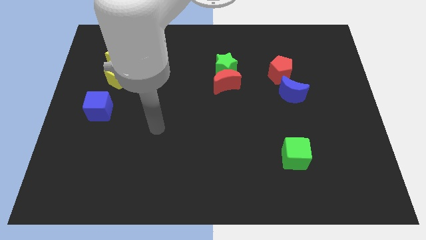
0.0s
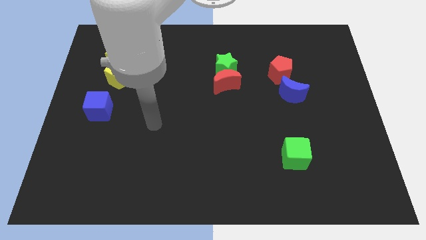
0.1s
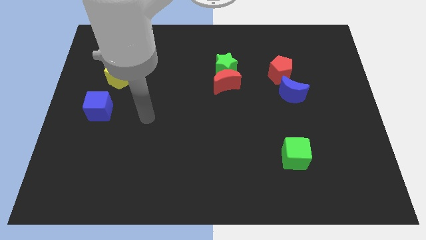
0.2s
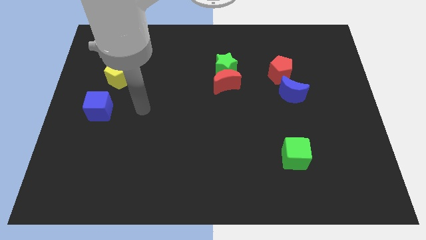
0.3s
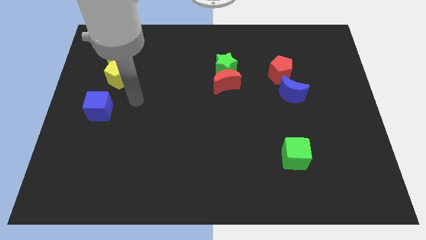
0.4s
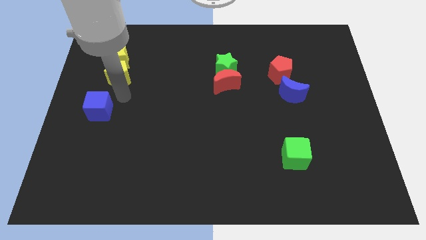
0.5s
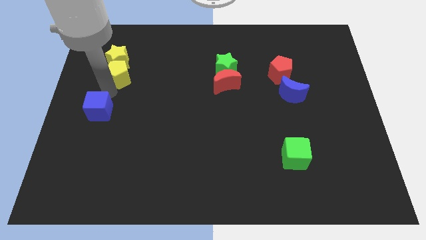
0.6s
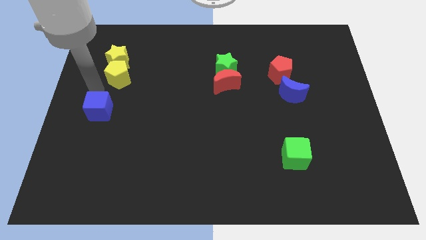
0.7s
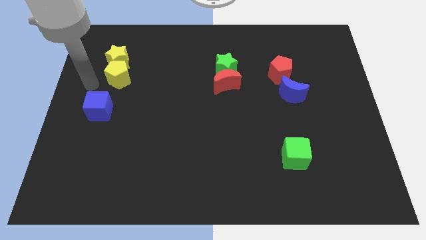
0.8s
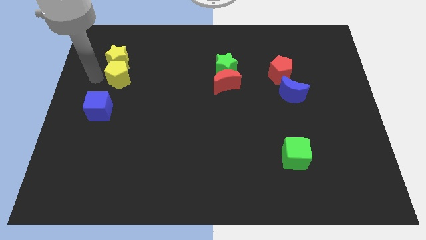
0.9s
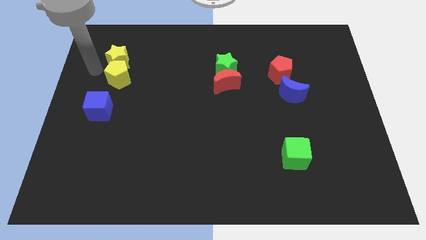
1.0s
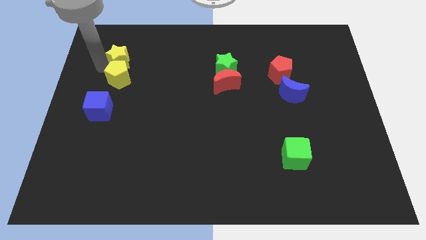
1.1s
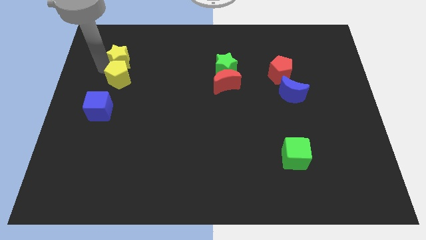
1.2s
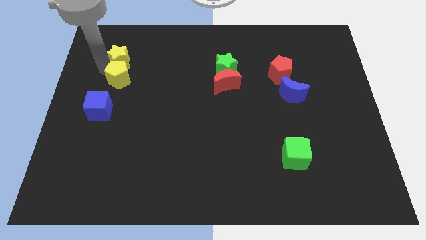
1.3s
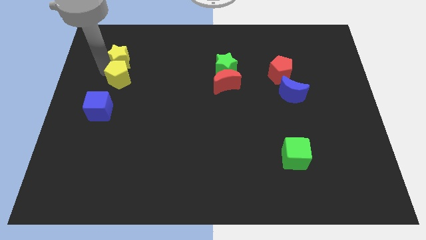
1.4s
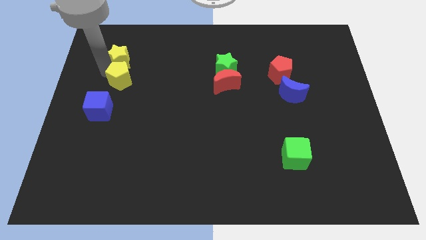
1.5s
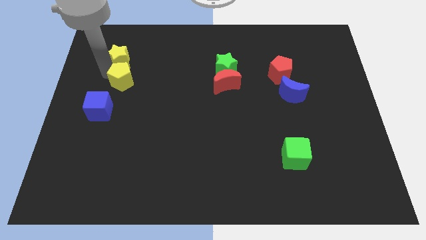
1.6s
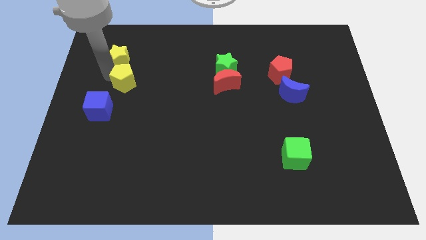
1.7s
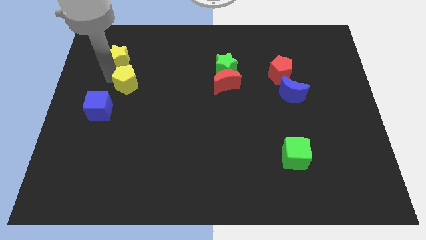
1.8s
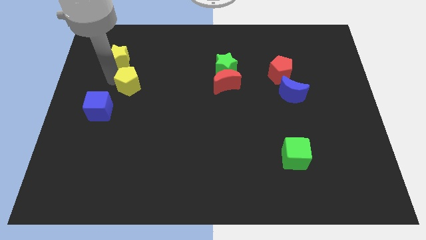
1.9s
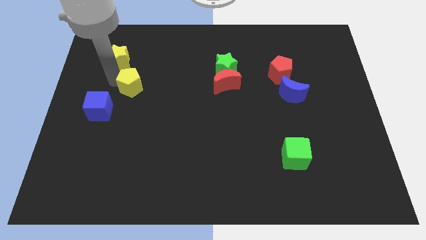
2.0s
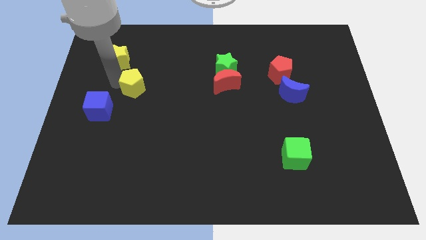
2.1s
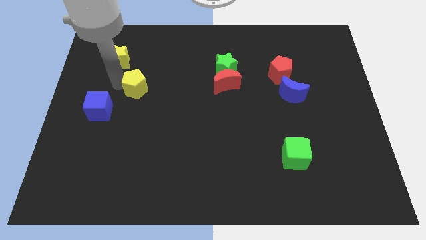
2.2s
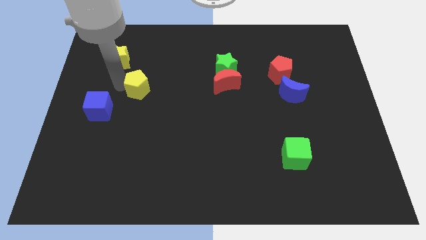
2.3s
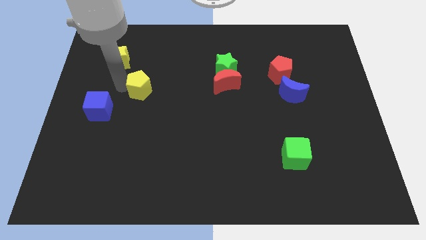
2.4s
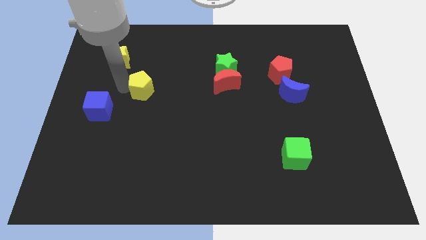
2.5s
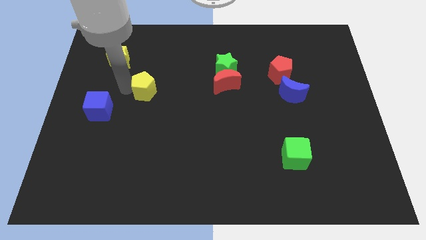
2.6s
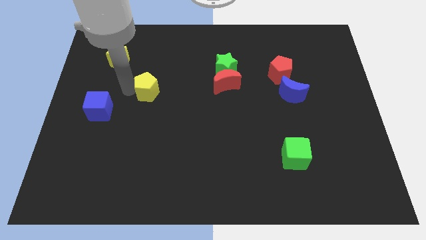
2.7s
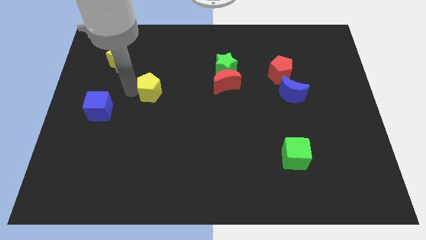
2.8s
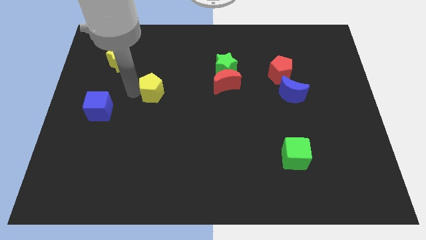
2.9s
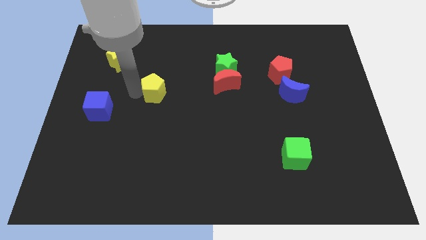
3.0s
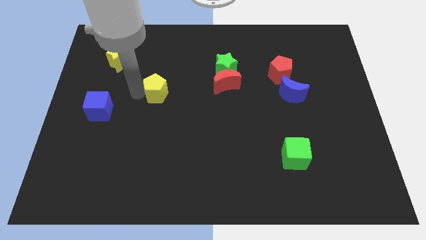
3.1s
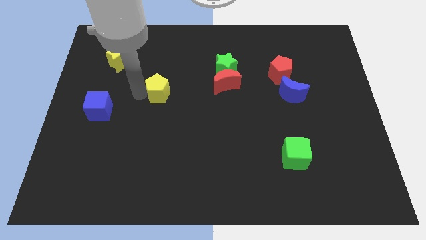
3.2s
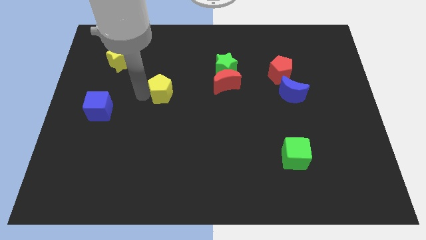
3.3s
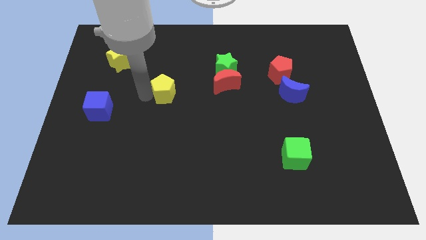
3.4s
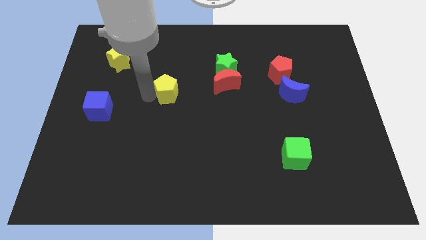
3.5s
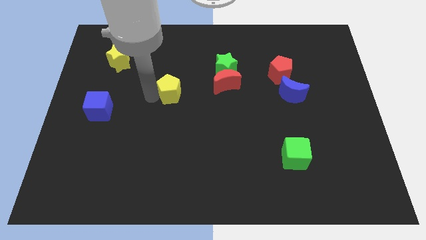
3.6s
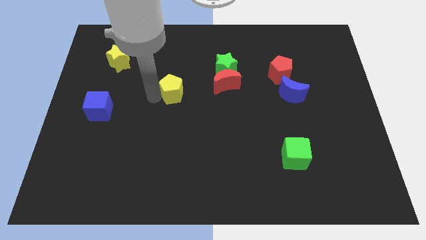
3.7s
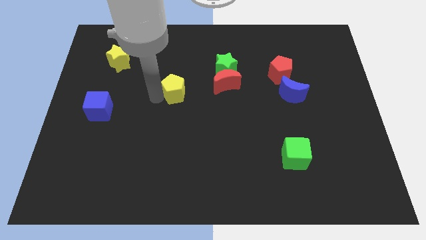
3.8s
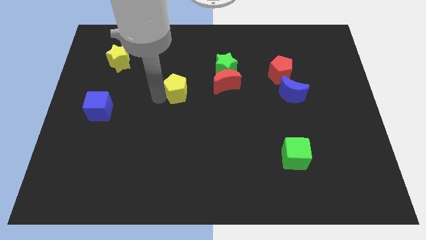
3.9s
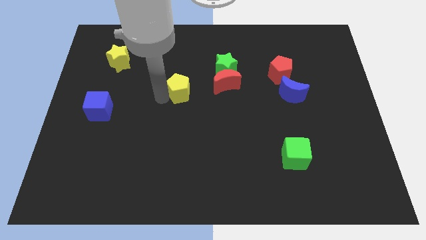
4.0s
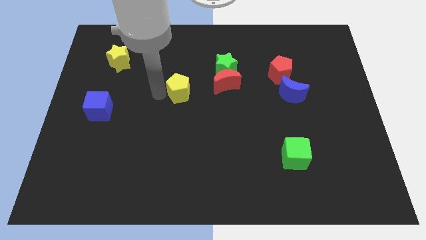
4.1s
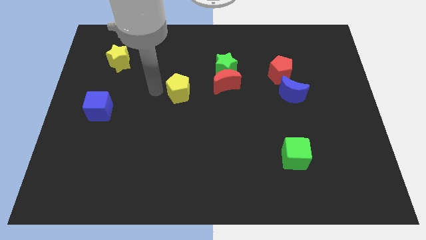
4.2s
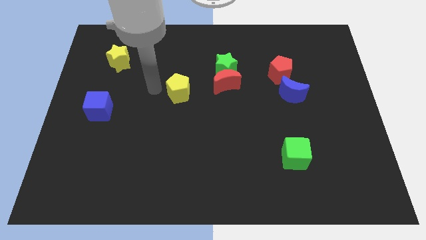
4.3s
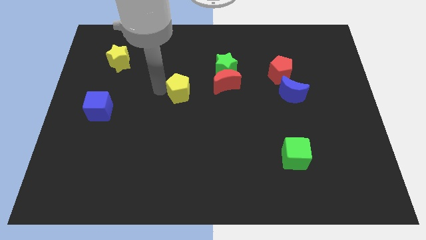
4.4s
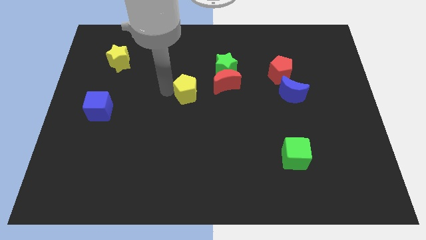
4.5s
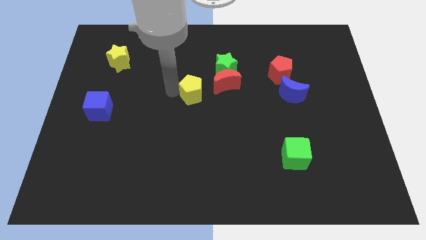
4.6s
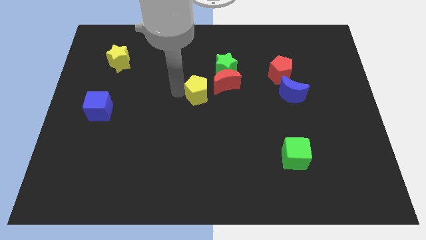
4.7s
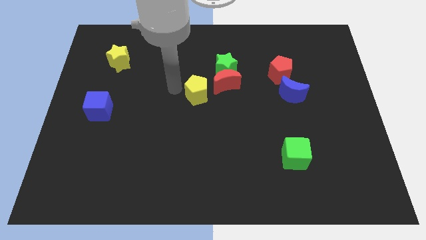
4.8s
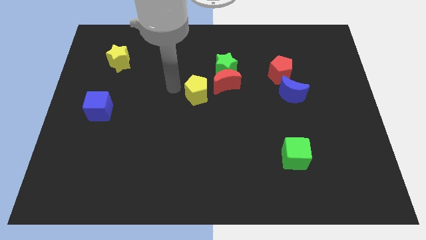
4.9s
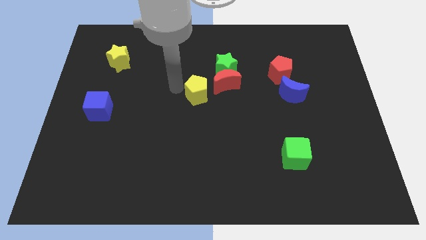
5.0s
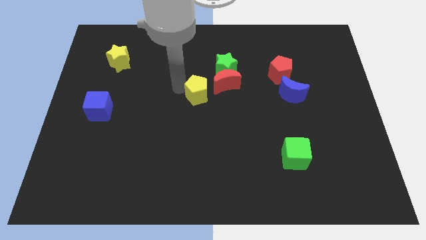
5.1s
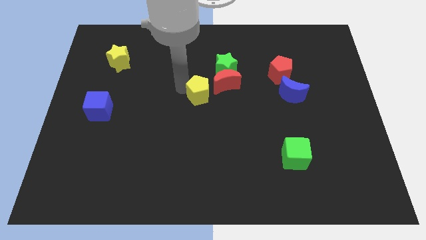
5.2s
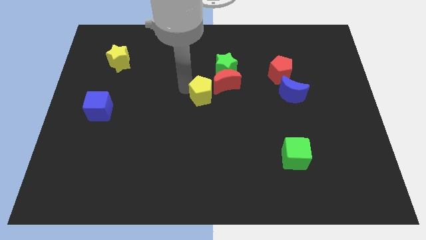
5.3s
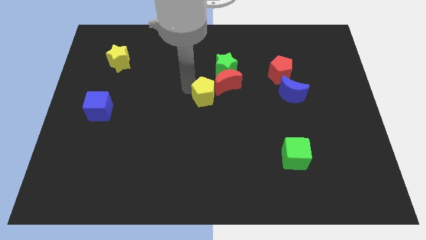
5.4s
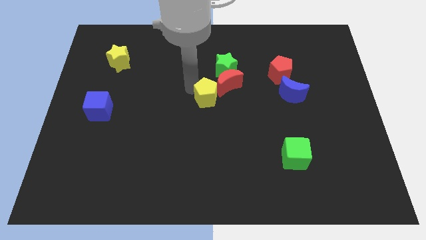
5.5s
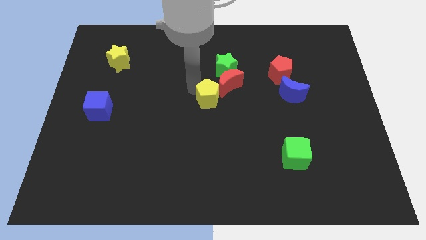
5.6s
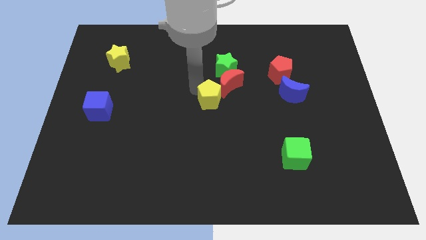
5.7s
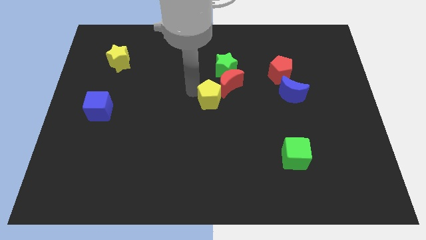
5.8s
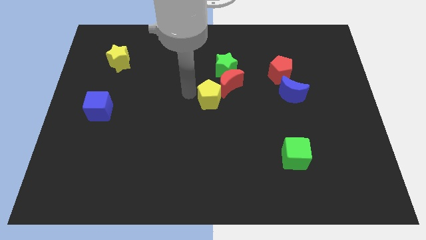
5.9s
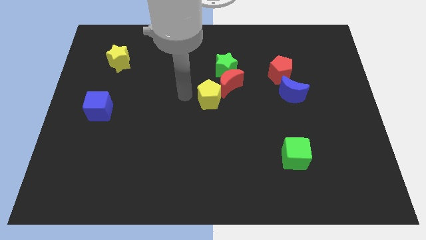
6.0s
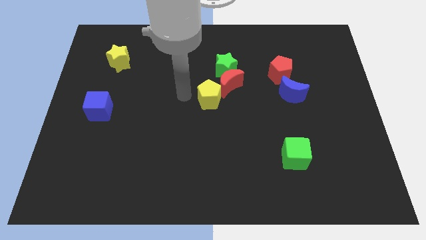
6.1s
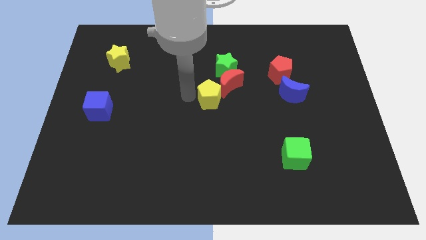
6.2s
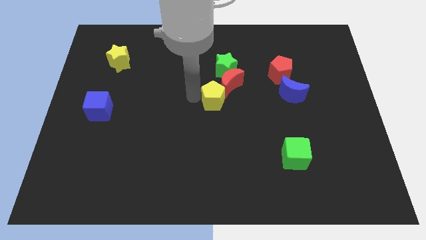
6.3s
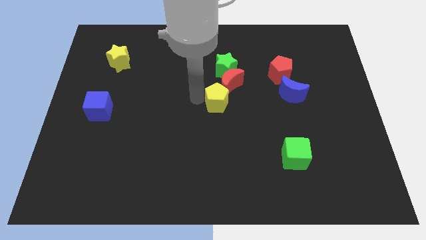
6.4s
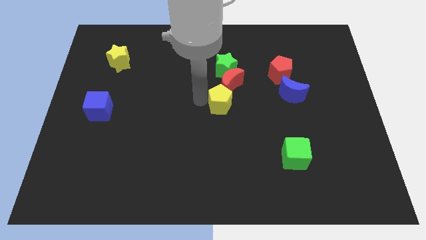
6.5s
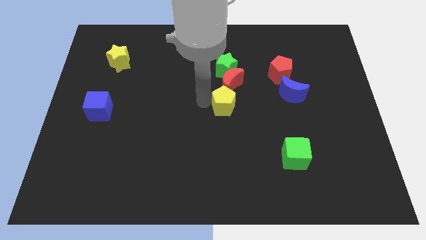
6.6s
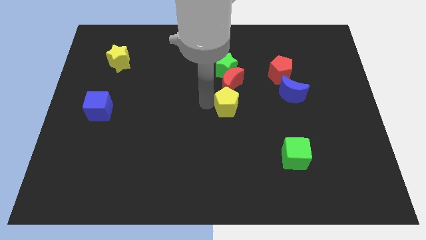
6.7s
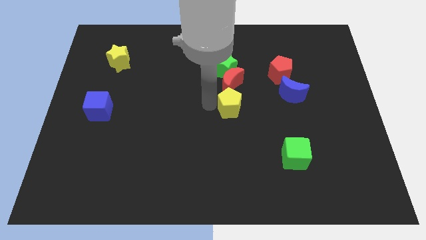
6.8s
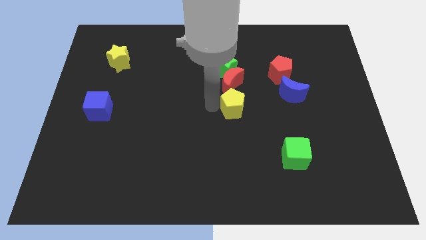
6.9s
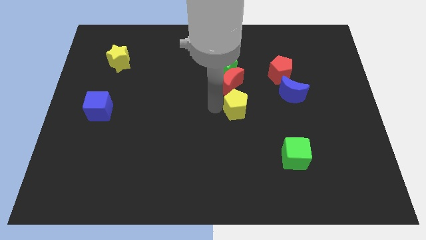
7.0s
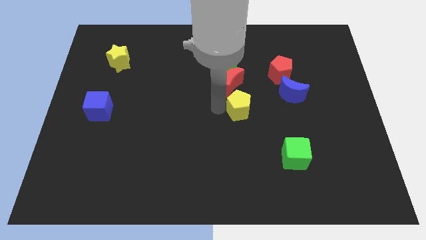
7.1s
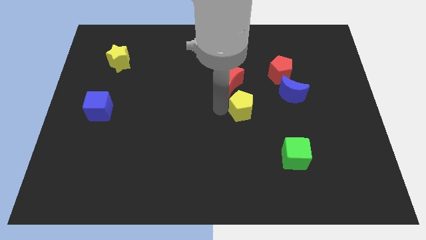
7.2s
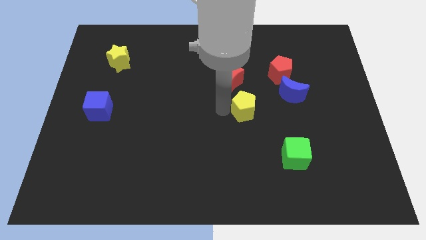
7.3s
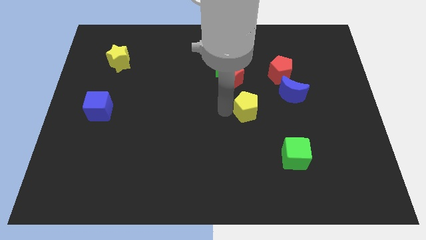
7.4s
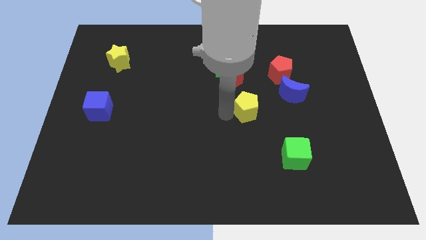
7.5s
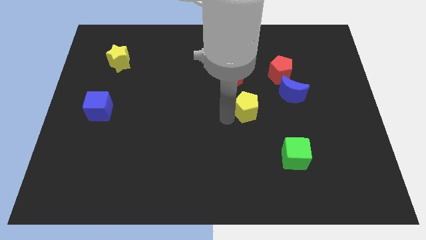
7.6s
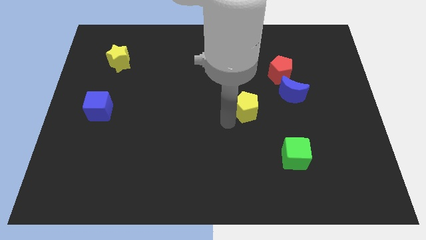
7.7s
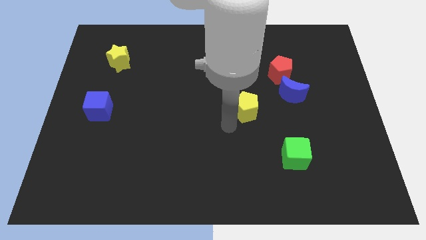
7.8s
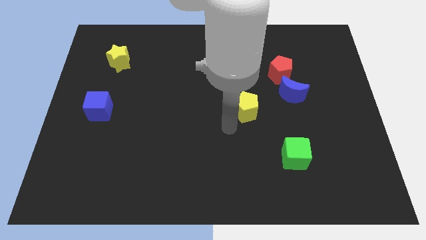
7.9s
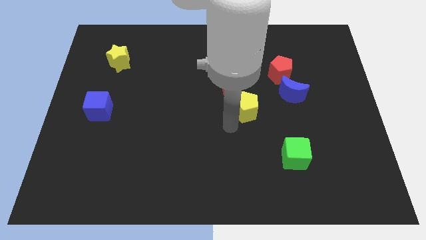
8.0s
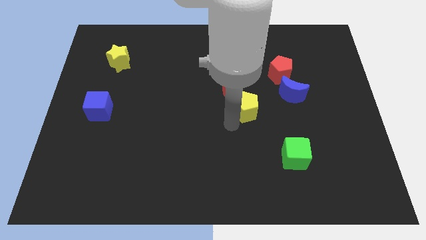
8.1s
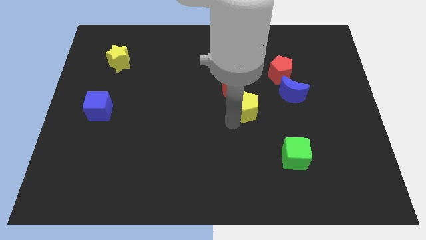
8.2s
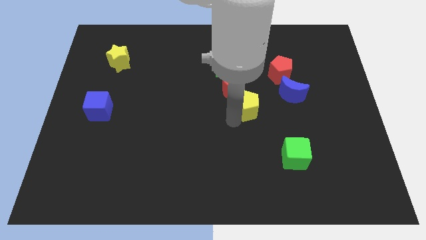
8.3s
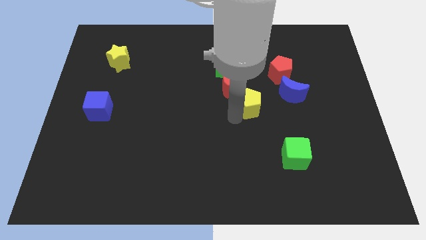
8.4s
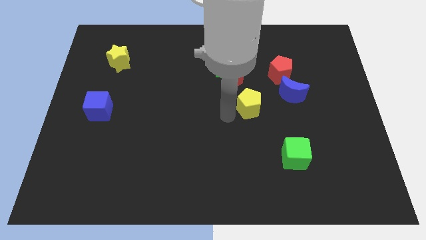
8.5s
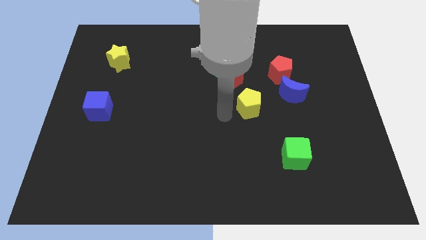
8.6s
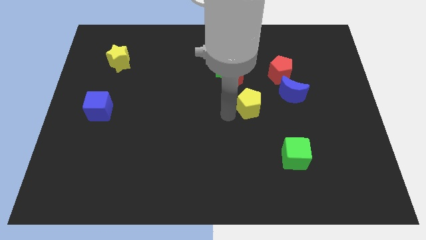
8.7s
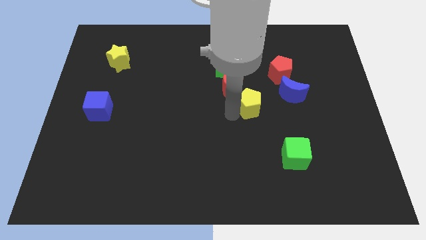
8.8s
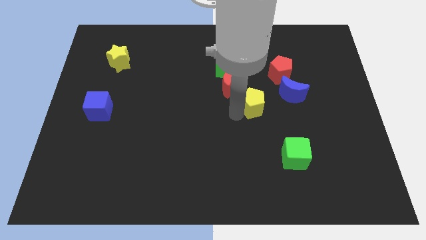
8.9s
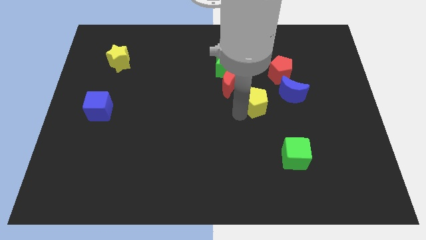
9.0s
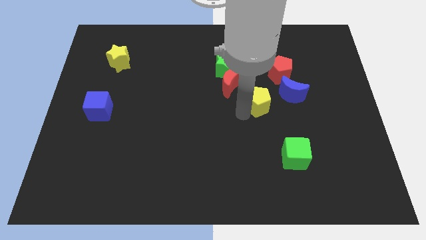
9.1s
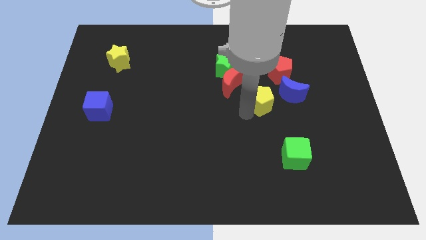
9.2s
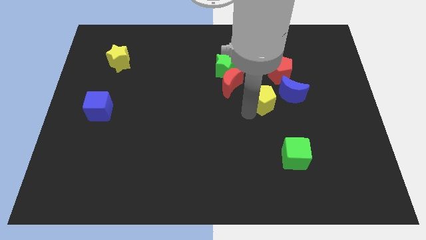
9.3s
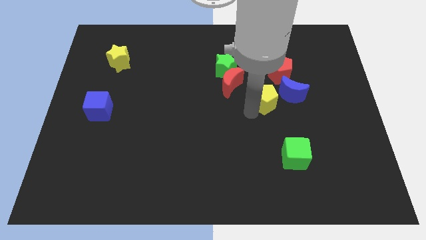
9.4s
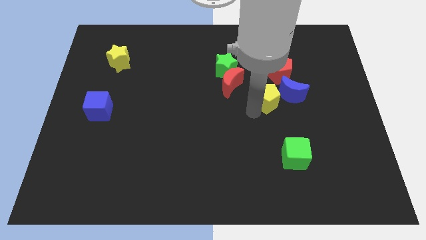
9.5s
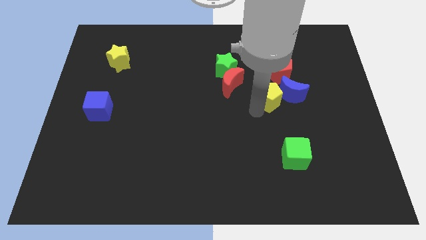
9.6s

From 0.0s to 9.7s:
push the yellow pentagon to the blue moon
